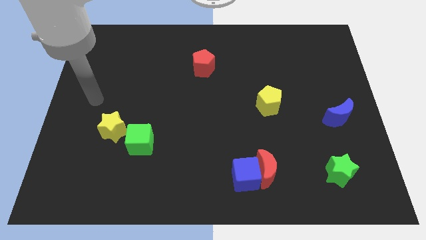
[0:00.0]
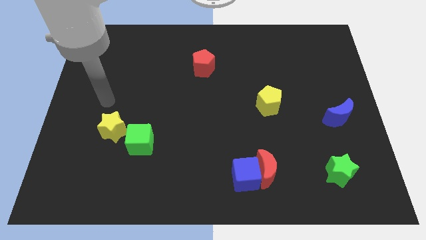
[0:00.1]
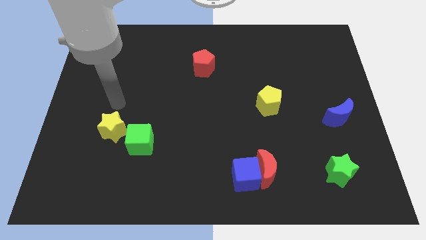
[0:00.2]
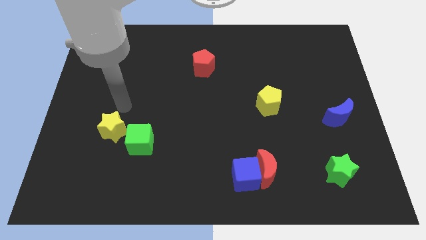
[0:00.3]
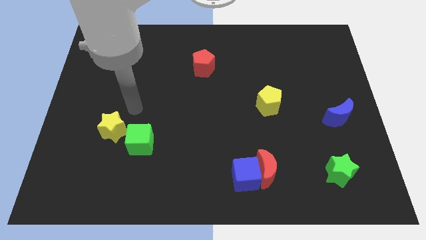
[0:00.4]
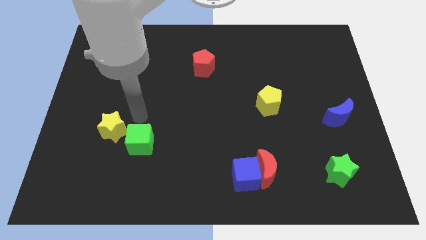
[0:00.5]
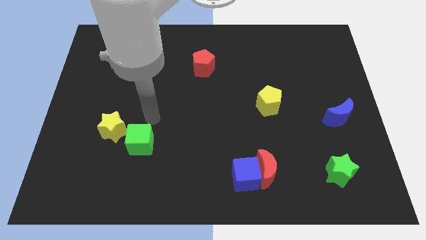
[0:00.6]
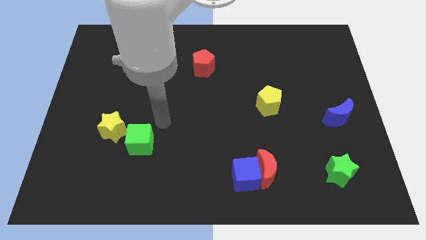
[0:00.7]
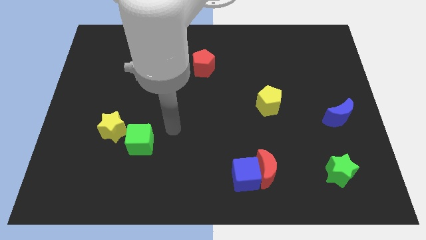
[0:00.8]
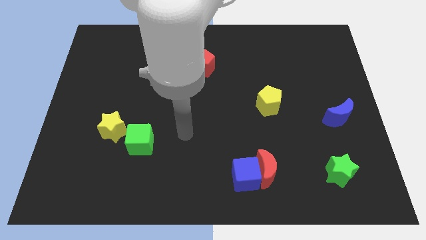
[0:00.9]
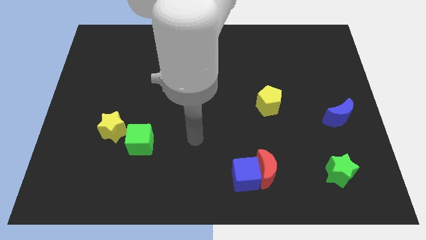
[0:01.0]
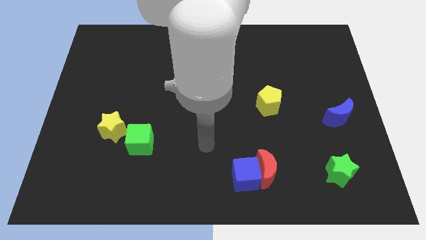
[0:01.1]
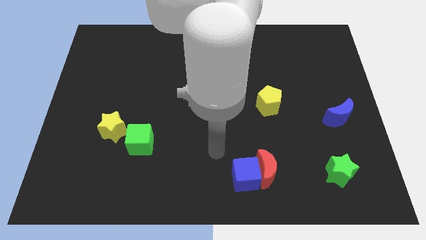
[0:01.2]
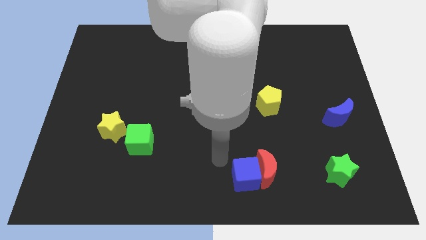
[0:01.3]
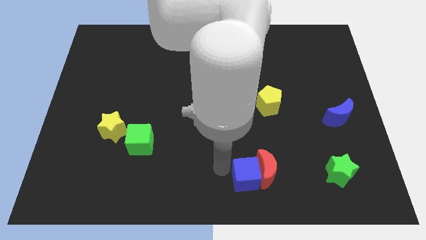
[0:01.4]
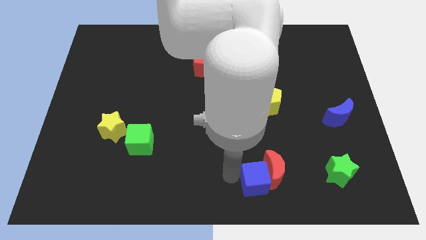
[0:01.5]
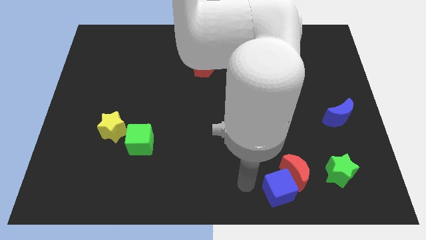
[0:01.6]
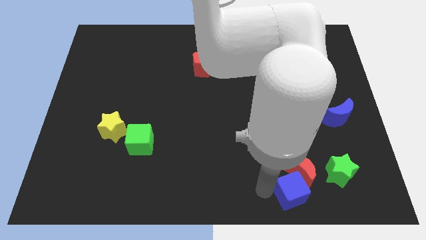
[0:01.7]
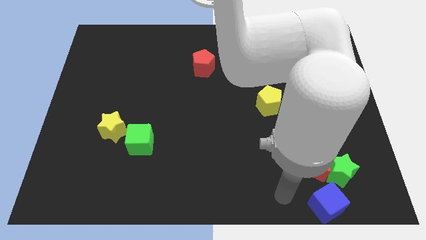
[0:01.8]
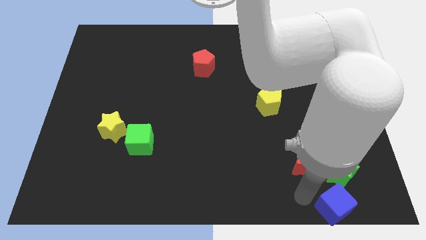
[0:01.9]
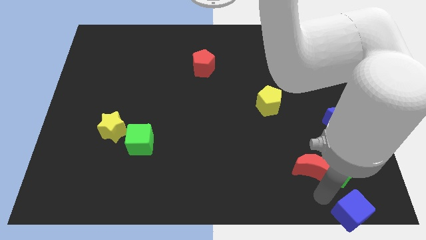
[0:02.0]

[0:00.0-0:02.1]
separate the red moon from the blue cube

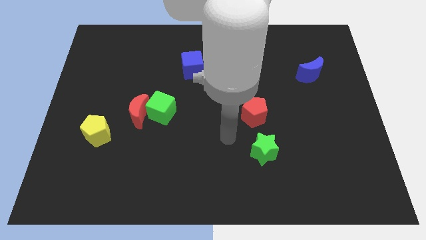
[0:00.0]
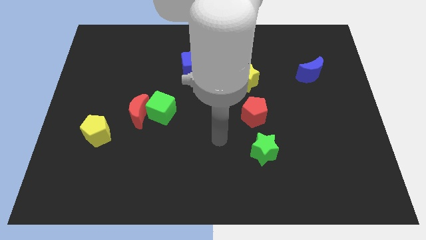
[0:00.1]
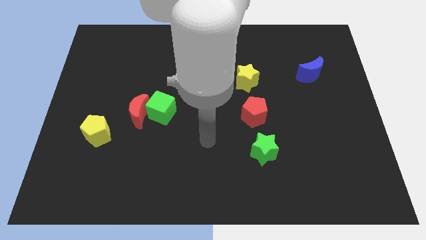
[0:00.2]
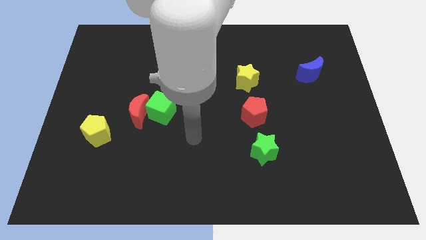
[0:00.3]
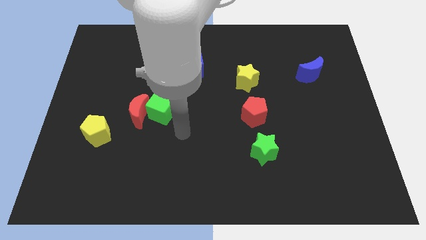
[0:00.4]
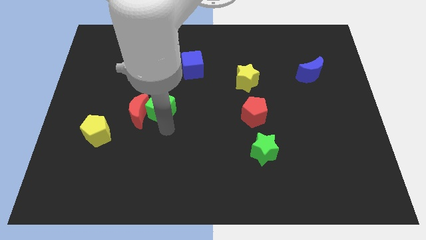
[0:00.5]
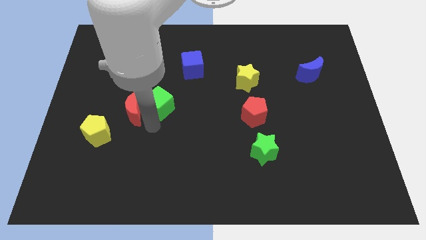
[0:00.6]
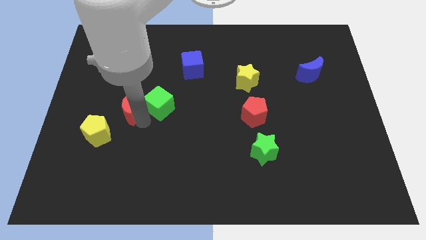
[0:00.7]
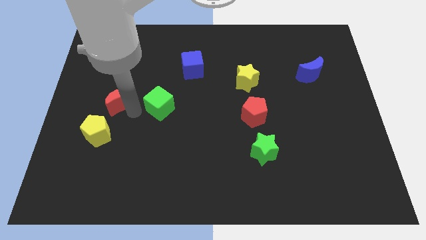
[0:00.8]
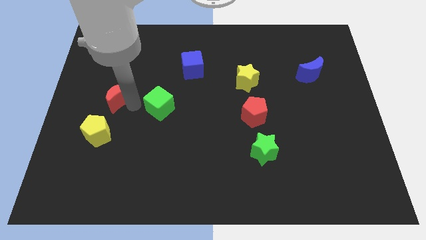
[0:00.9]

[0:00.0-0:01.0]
pull the green cube apart from the red moon

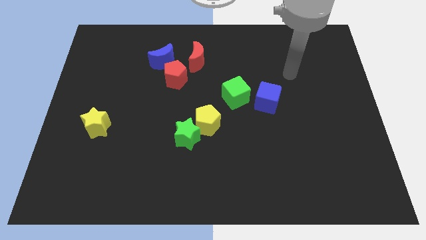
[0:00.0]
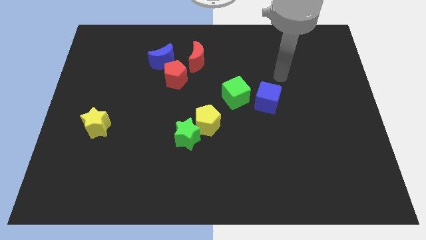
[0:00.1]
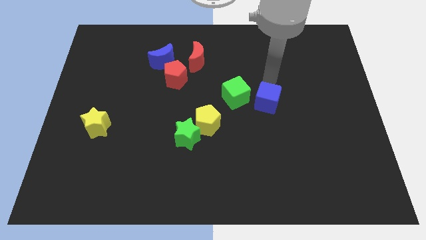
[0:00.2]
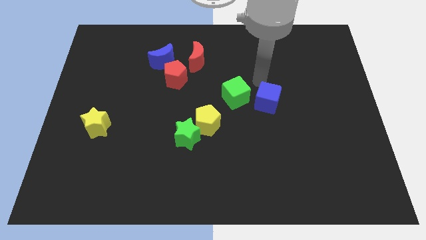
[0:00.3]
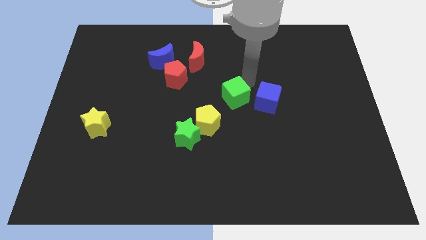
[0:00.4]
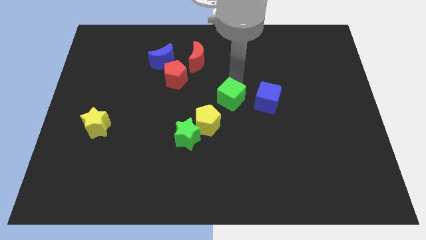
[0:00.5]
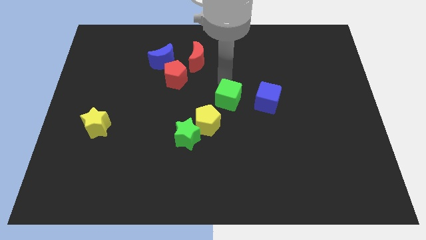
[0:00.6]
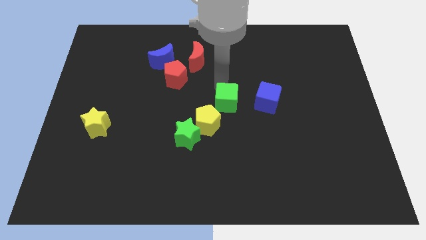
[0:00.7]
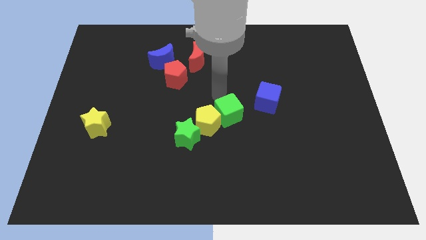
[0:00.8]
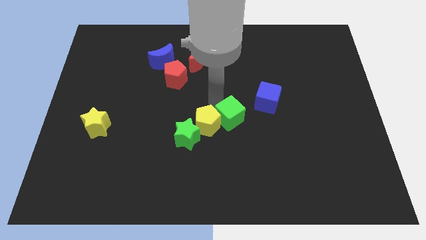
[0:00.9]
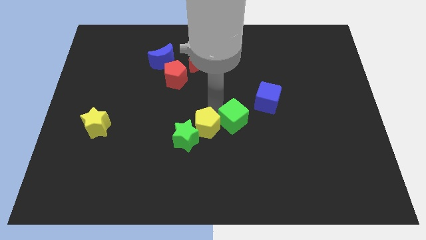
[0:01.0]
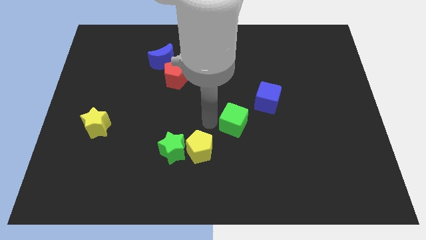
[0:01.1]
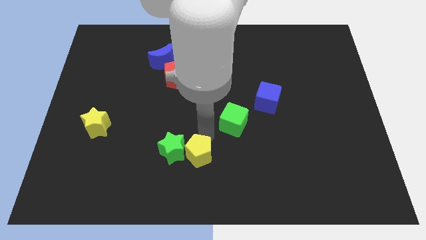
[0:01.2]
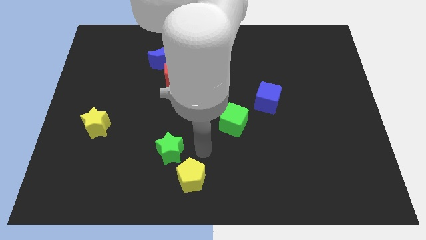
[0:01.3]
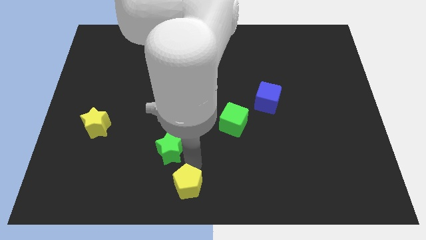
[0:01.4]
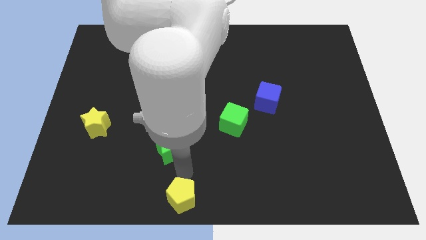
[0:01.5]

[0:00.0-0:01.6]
pull the green star apart from the yellow pentagon

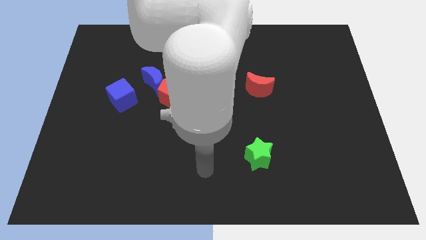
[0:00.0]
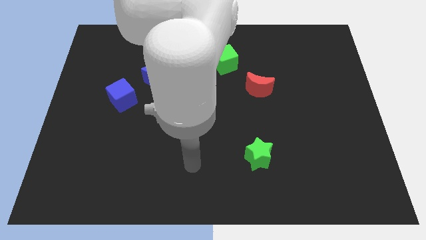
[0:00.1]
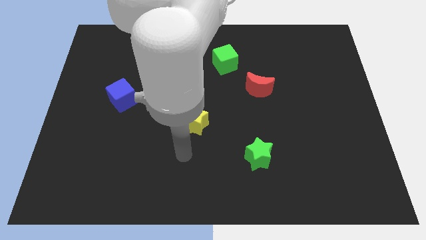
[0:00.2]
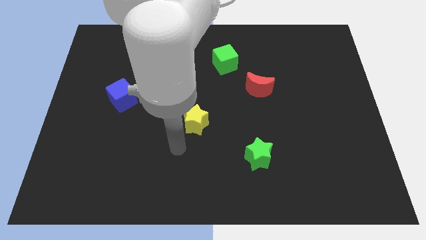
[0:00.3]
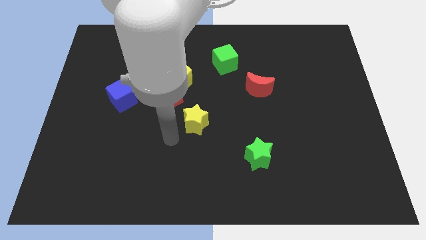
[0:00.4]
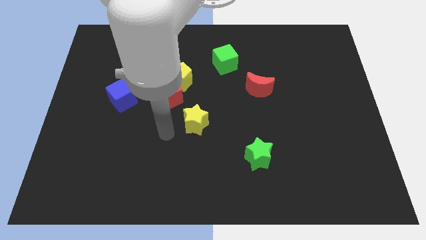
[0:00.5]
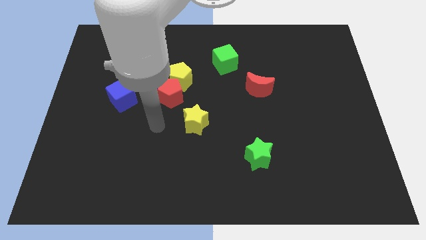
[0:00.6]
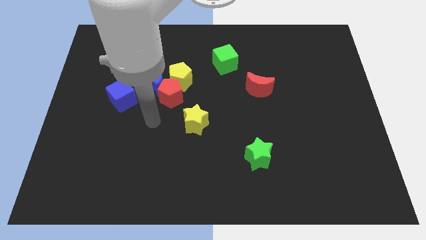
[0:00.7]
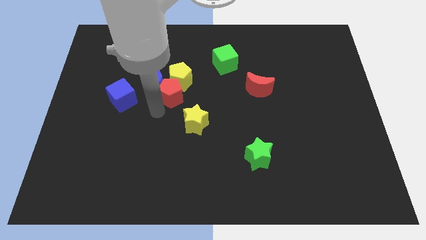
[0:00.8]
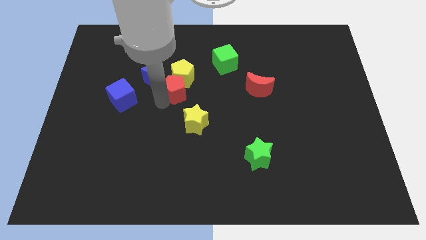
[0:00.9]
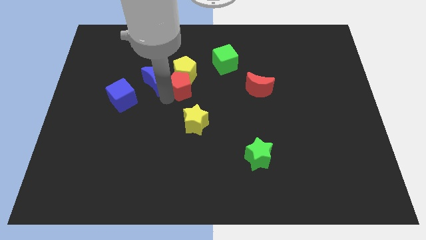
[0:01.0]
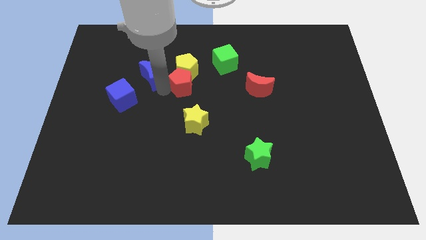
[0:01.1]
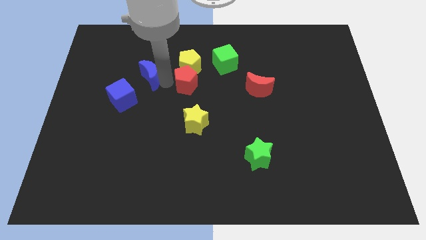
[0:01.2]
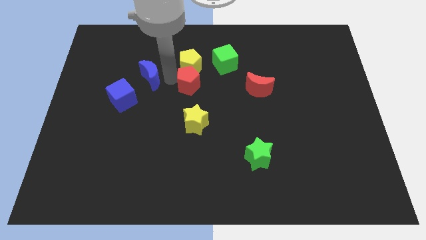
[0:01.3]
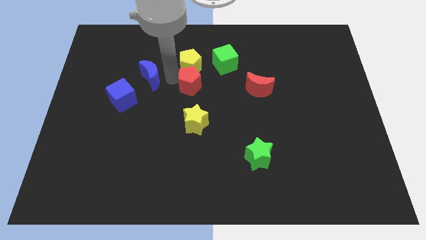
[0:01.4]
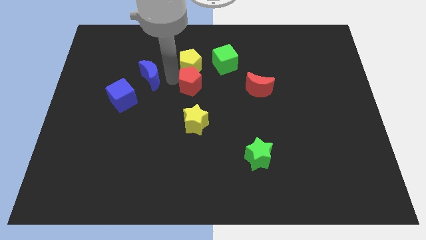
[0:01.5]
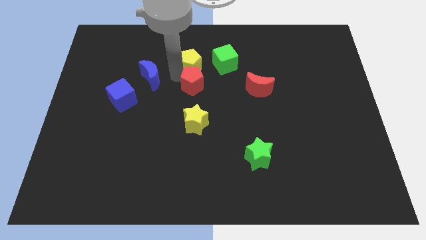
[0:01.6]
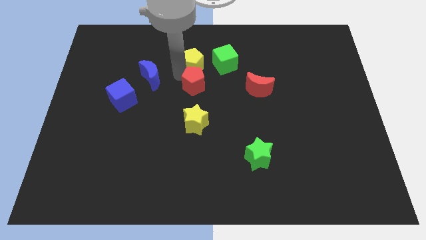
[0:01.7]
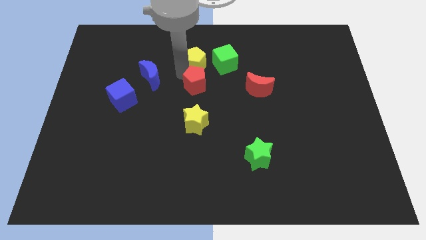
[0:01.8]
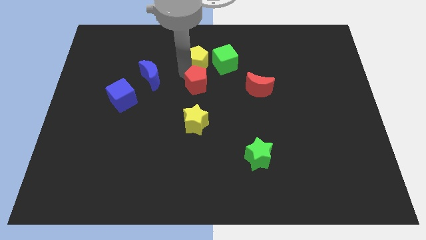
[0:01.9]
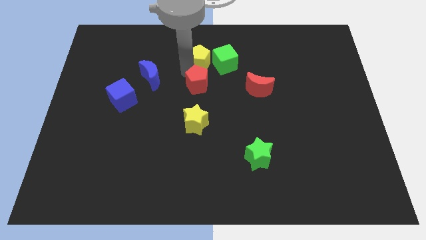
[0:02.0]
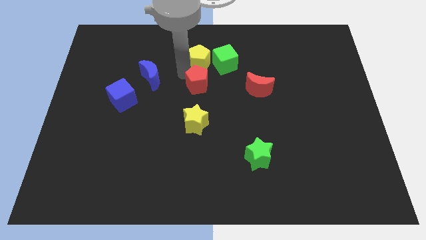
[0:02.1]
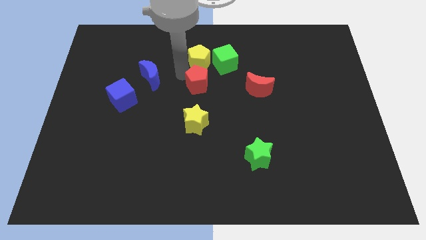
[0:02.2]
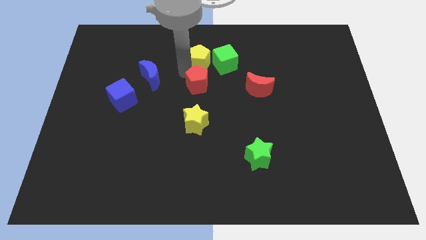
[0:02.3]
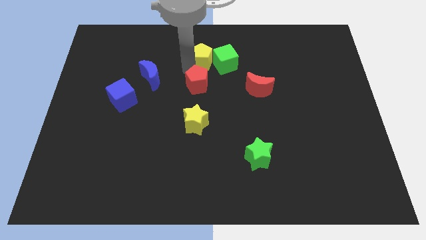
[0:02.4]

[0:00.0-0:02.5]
separate the yellow pentagon from the red pentagon and blue moon

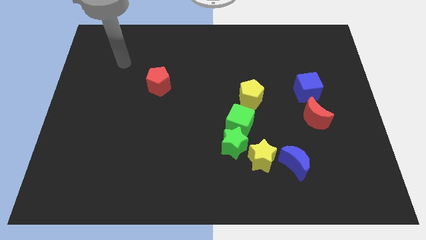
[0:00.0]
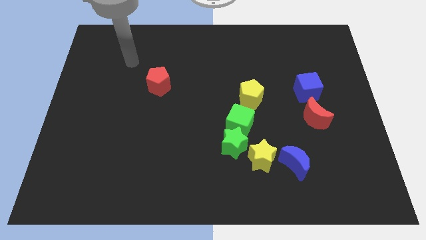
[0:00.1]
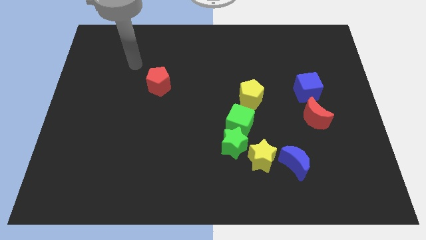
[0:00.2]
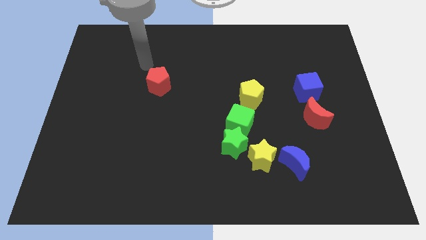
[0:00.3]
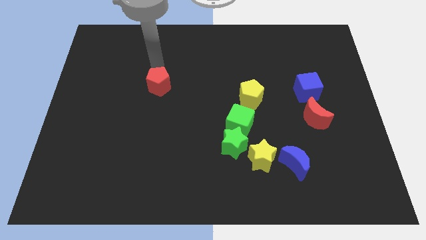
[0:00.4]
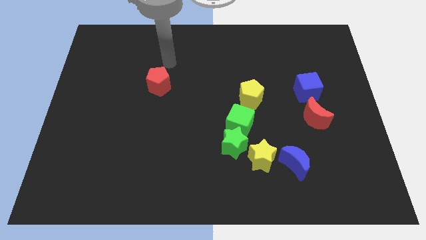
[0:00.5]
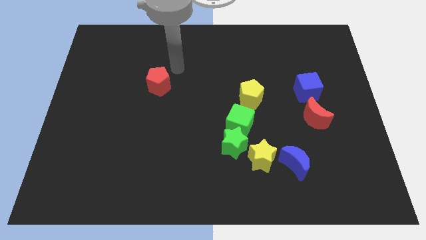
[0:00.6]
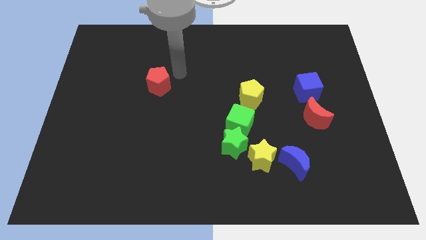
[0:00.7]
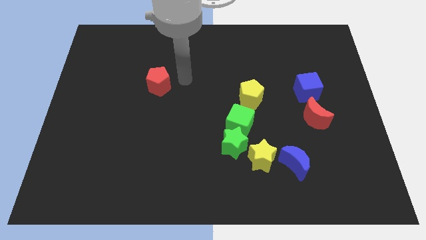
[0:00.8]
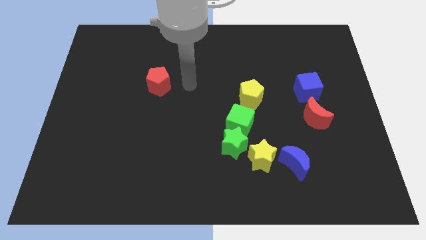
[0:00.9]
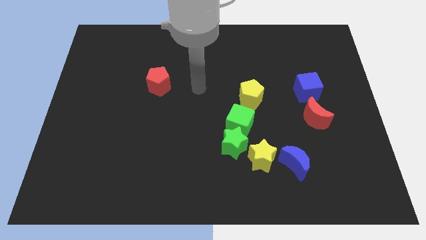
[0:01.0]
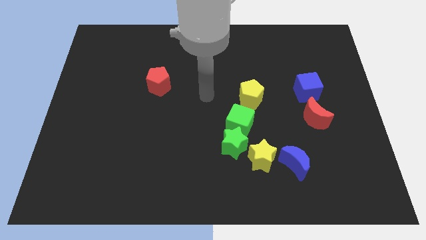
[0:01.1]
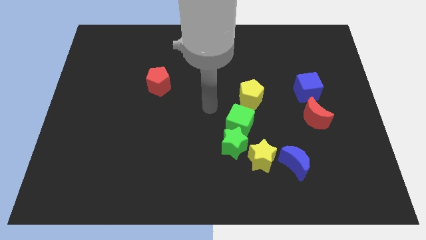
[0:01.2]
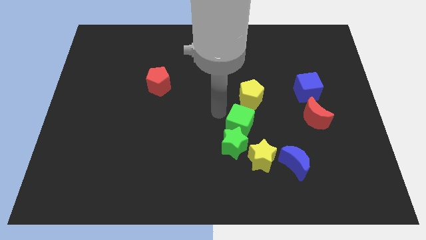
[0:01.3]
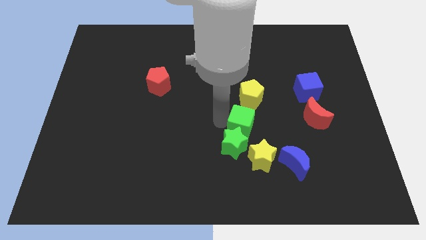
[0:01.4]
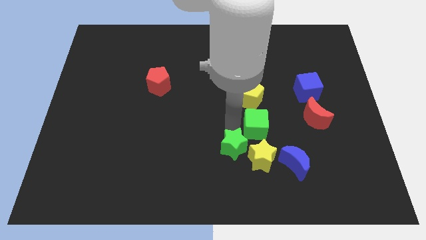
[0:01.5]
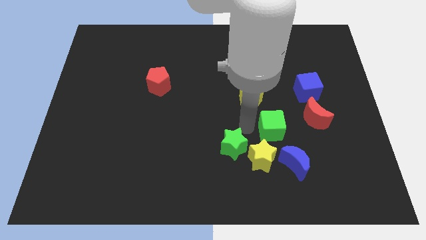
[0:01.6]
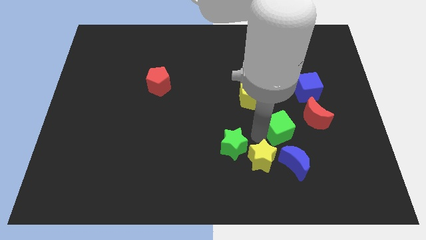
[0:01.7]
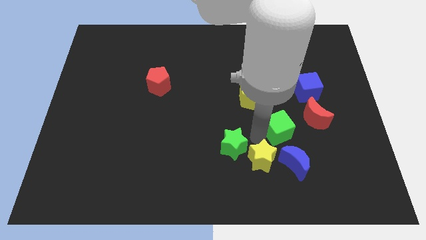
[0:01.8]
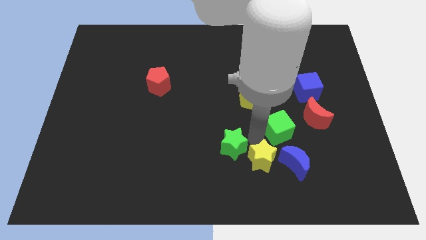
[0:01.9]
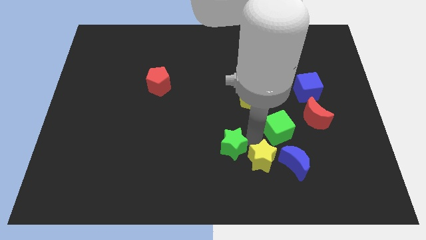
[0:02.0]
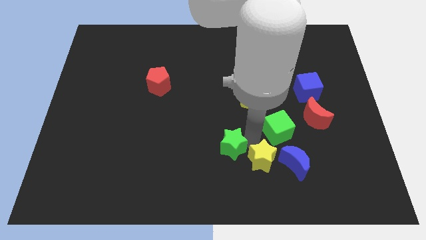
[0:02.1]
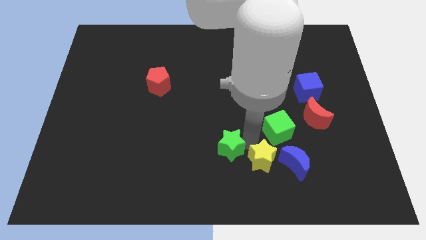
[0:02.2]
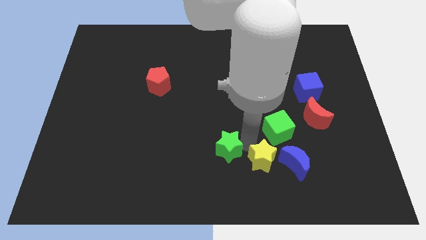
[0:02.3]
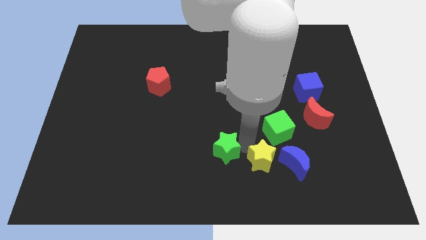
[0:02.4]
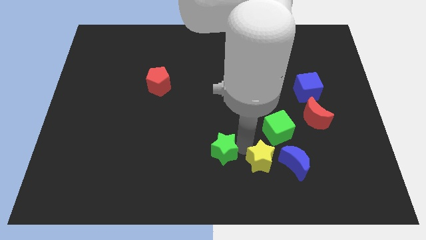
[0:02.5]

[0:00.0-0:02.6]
separate the green star from the green cube and yellow star
